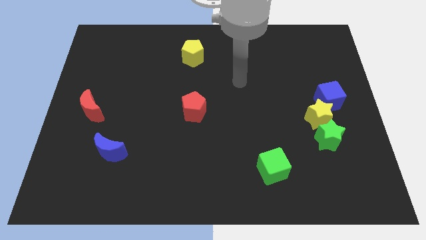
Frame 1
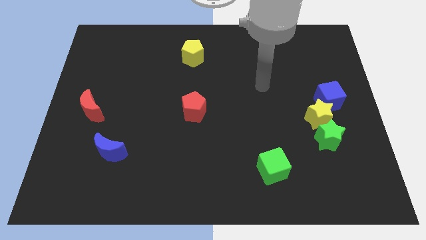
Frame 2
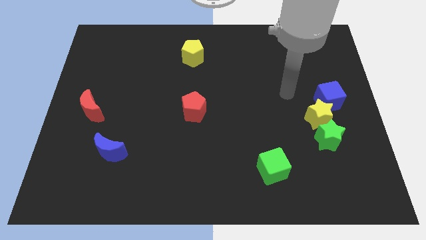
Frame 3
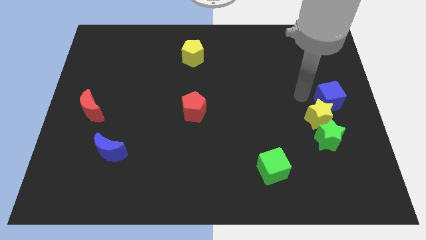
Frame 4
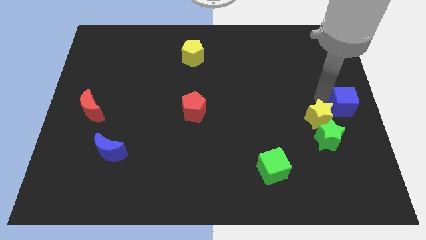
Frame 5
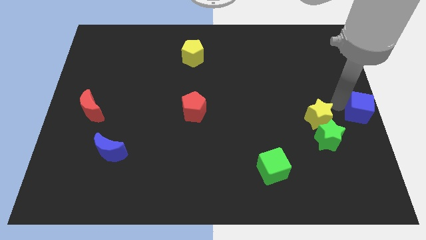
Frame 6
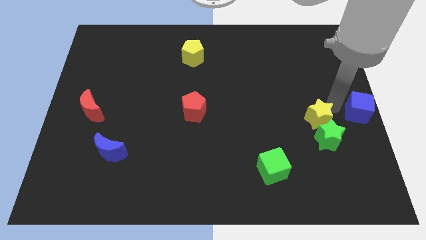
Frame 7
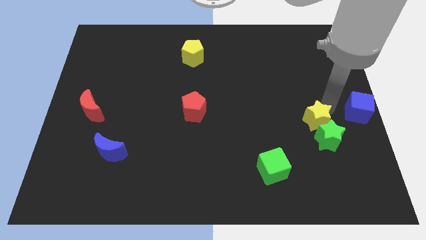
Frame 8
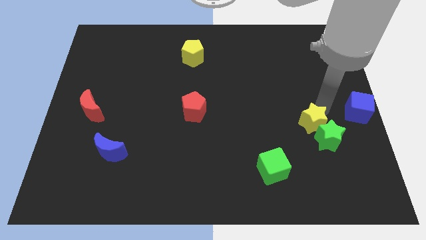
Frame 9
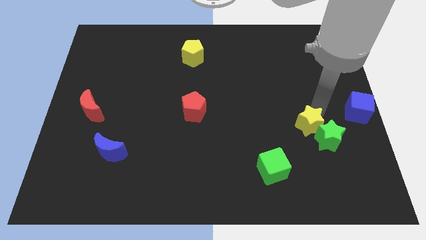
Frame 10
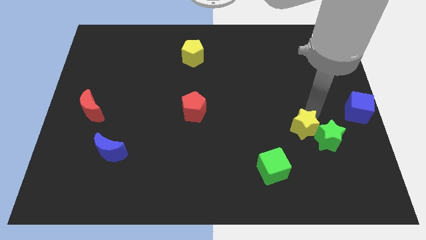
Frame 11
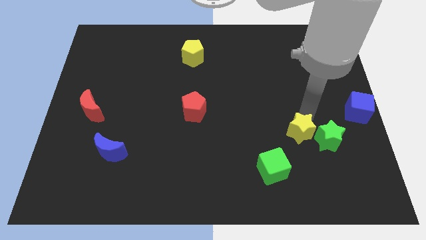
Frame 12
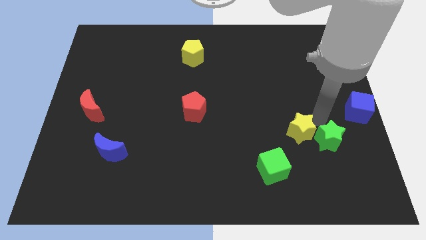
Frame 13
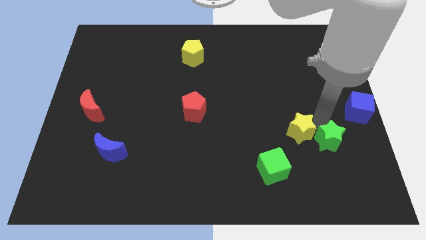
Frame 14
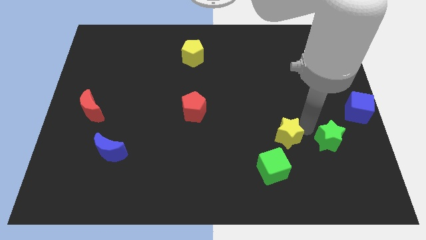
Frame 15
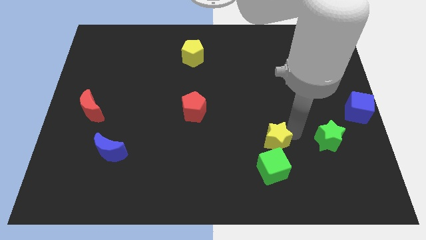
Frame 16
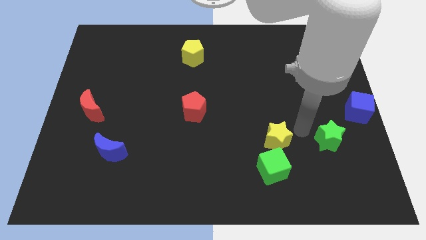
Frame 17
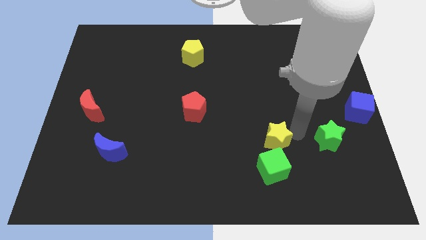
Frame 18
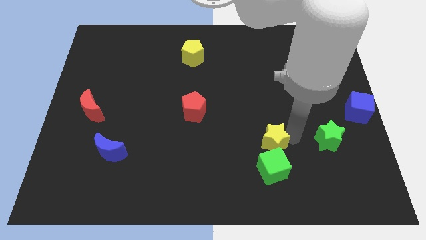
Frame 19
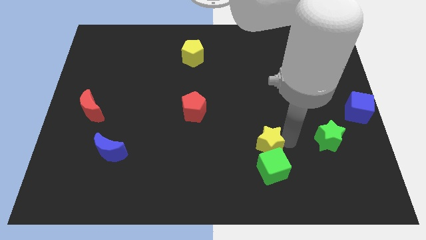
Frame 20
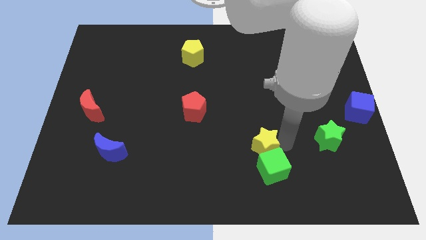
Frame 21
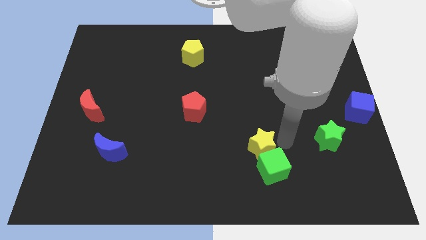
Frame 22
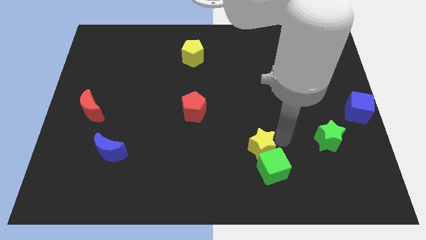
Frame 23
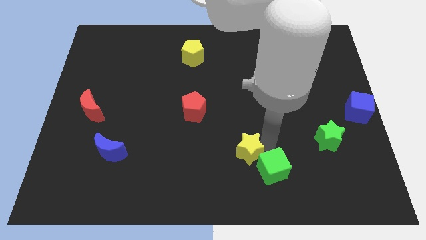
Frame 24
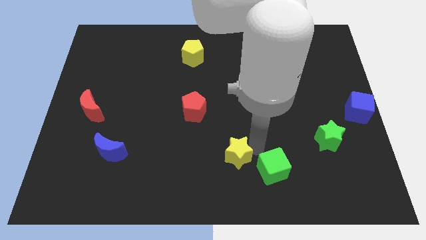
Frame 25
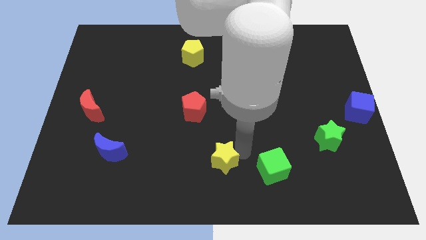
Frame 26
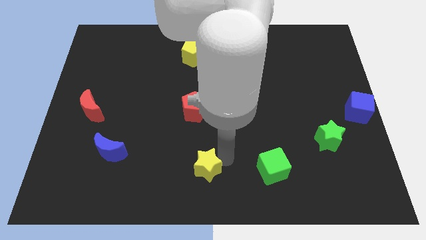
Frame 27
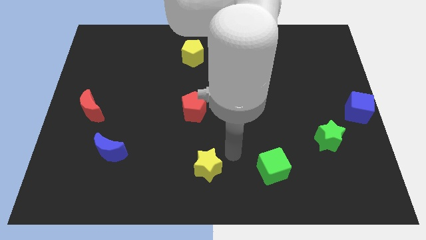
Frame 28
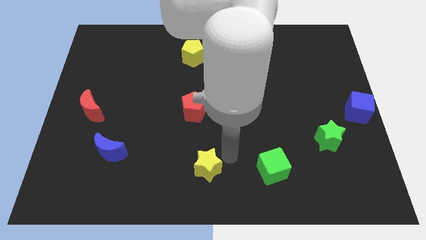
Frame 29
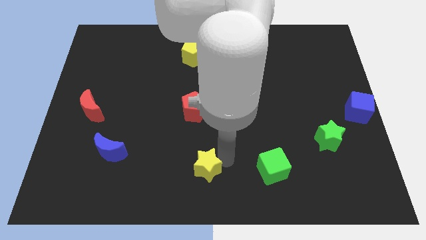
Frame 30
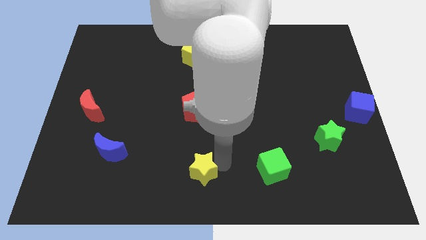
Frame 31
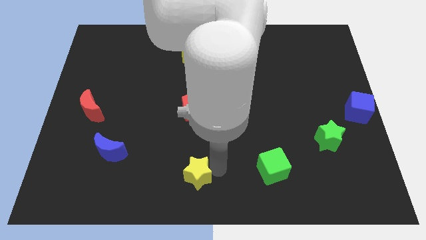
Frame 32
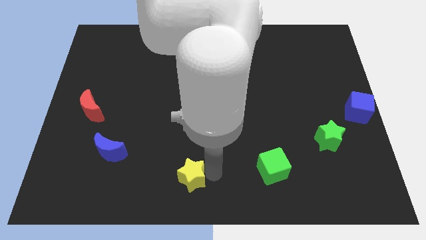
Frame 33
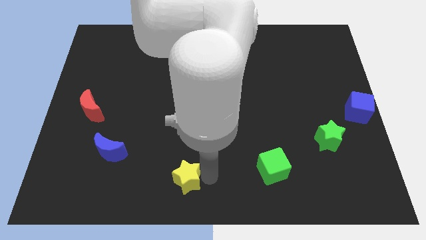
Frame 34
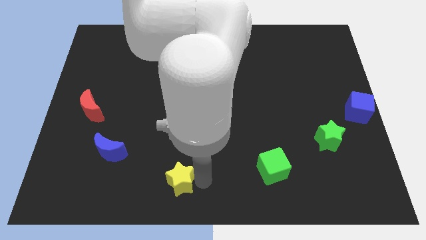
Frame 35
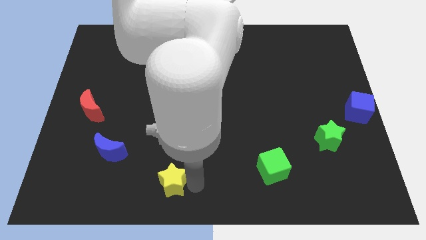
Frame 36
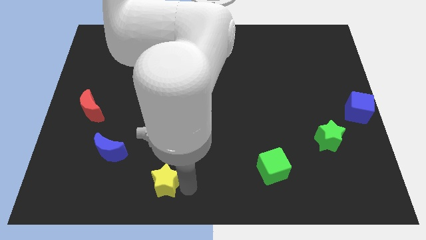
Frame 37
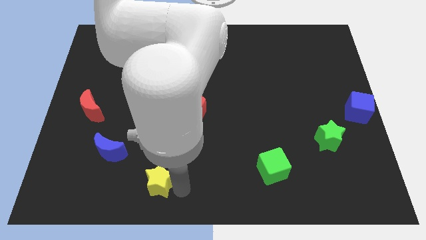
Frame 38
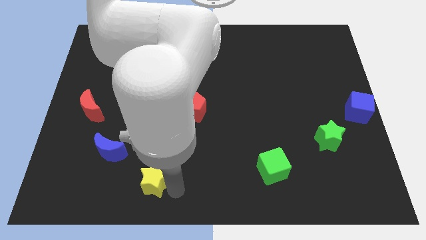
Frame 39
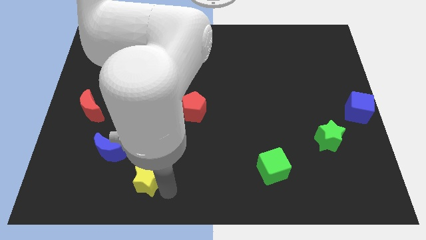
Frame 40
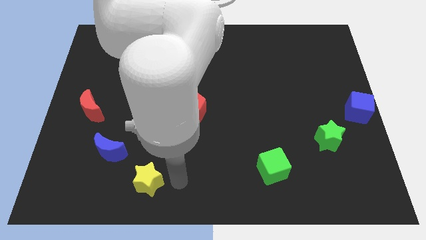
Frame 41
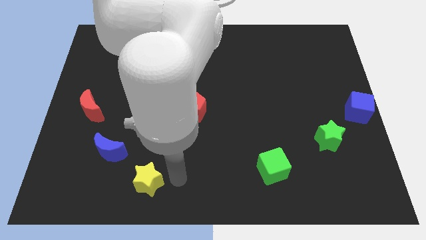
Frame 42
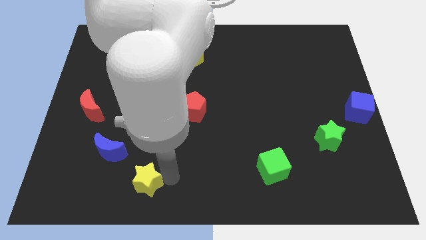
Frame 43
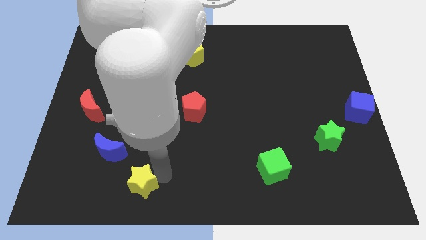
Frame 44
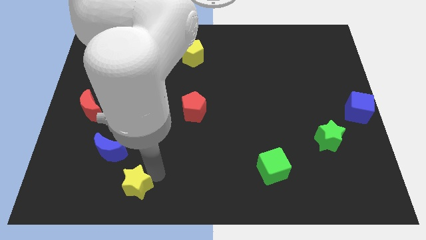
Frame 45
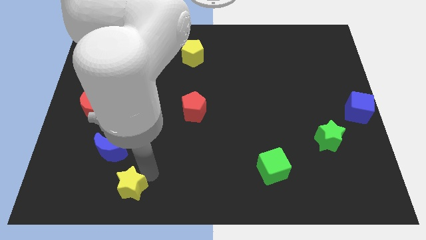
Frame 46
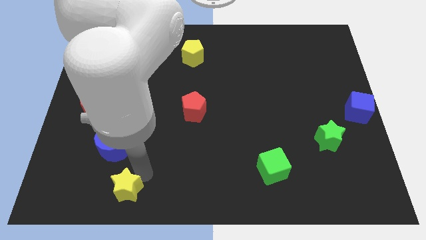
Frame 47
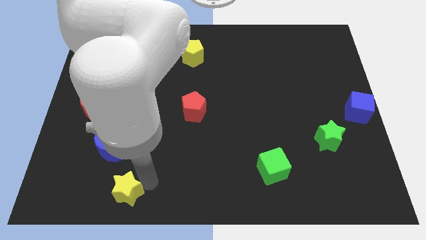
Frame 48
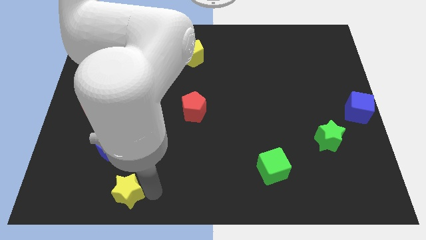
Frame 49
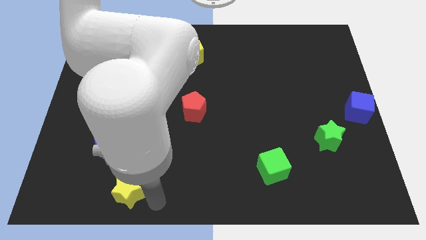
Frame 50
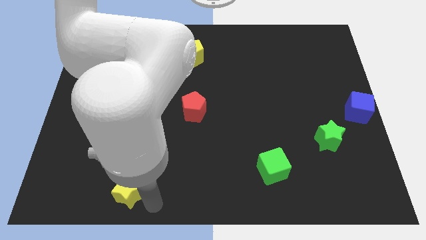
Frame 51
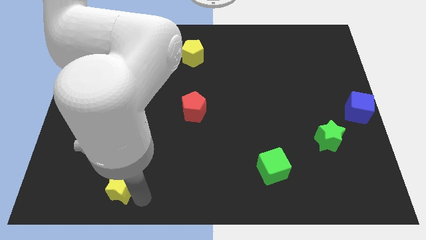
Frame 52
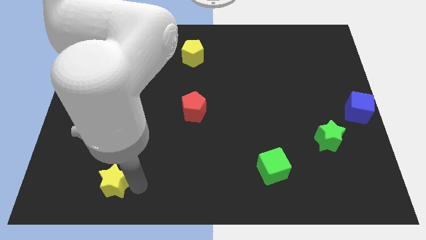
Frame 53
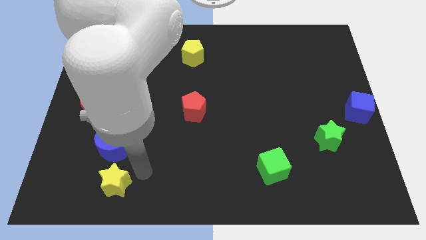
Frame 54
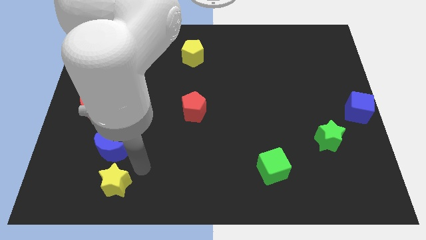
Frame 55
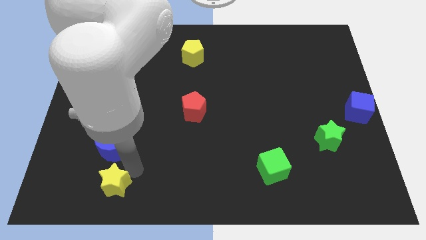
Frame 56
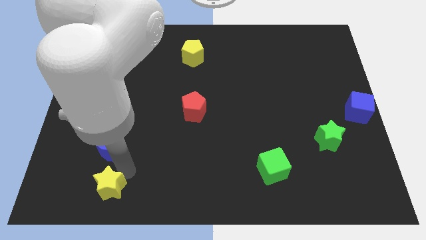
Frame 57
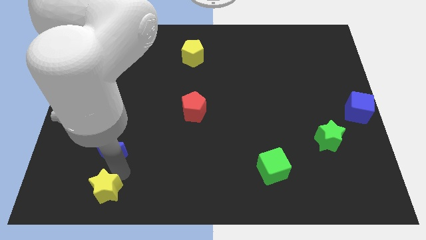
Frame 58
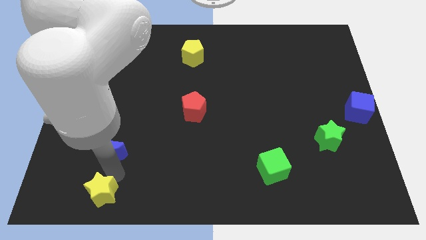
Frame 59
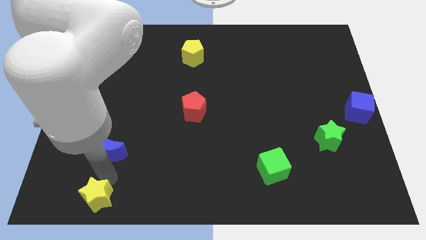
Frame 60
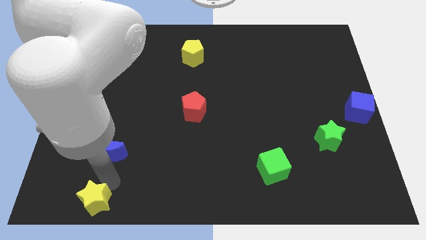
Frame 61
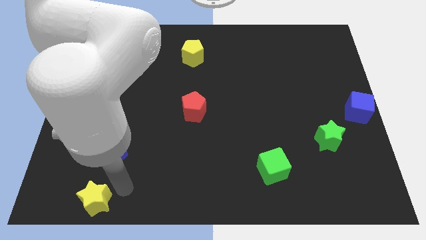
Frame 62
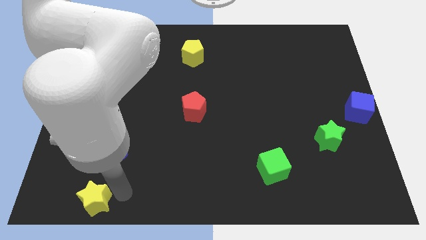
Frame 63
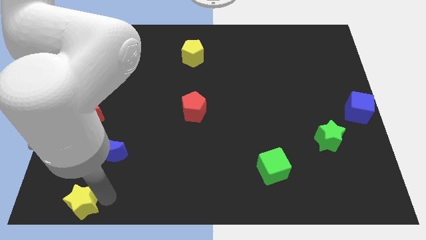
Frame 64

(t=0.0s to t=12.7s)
put the yellow star to the lower left corner

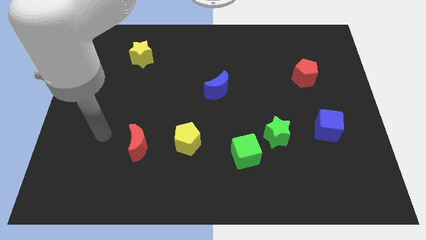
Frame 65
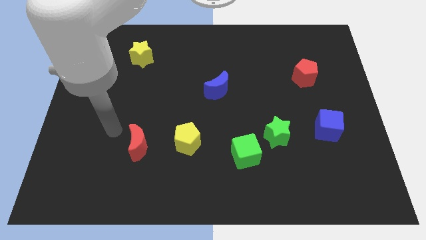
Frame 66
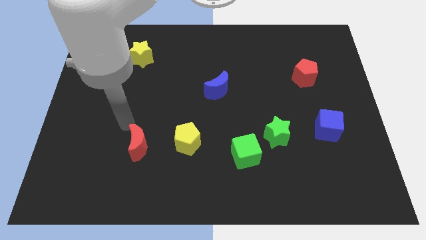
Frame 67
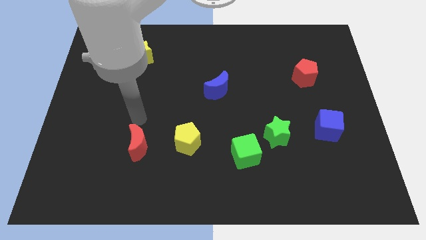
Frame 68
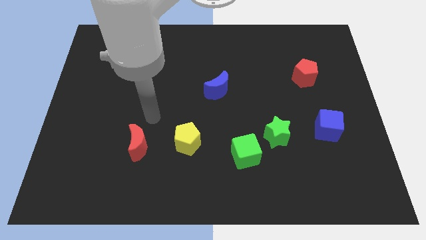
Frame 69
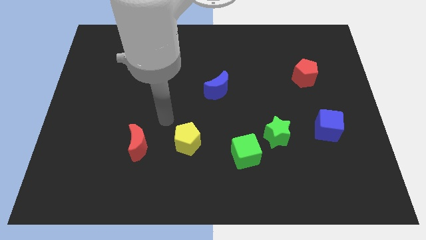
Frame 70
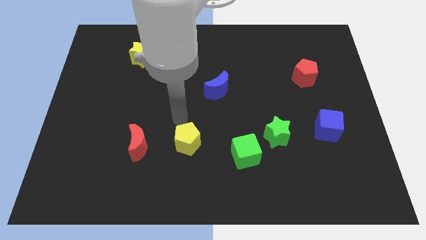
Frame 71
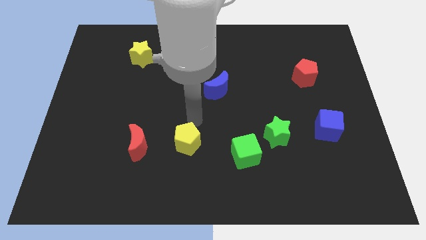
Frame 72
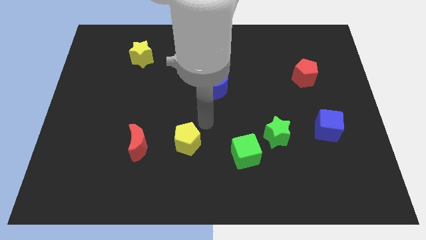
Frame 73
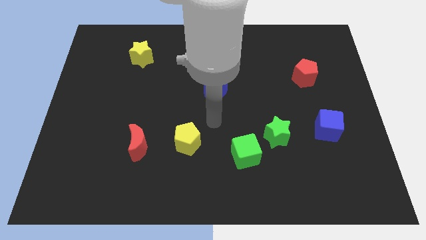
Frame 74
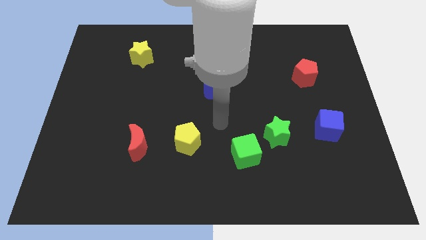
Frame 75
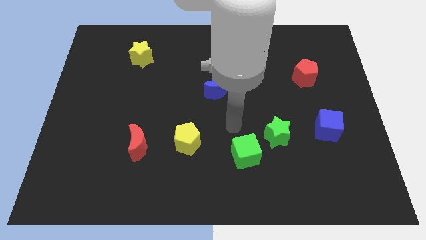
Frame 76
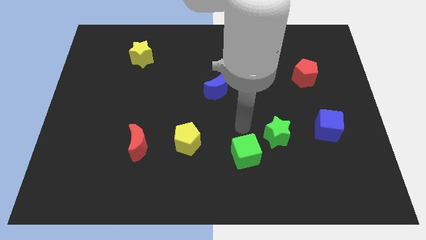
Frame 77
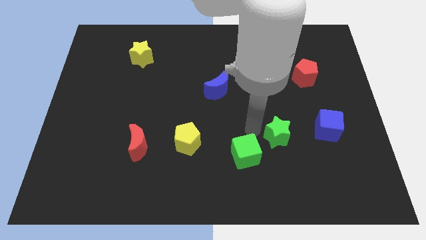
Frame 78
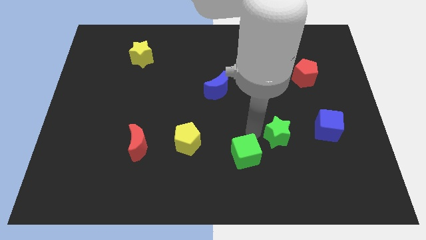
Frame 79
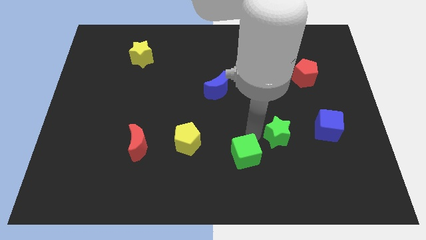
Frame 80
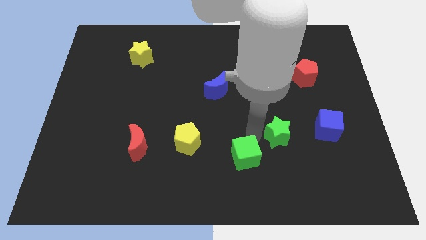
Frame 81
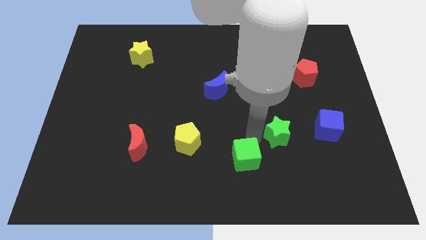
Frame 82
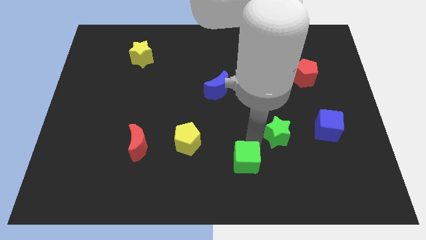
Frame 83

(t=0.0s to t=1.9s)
push the green cube to the bottom side
